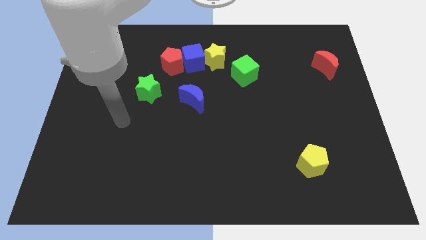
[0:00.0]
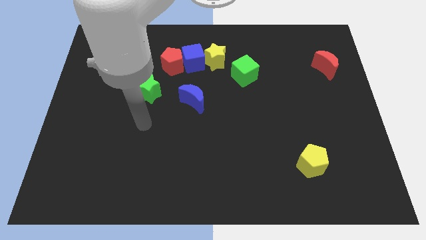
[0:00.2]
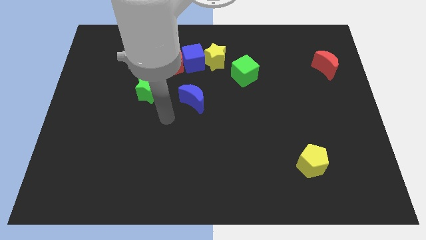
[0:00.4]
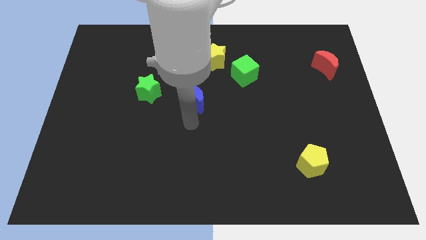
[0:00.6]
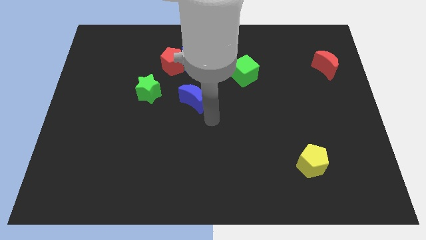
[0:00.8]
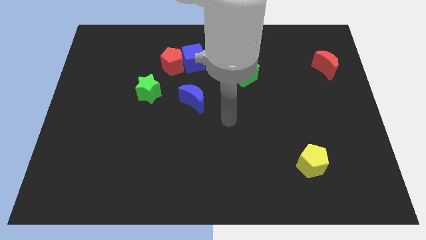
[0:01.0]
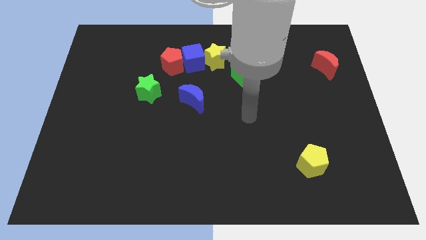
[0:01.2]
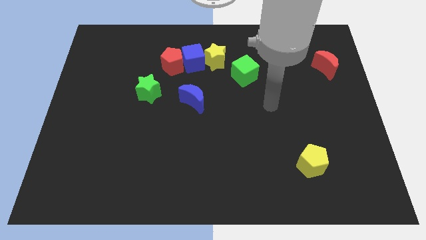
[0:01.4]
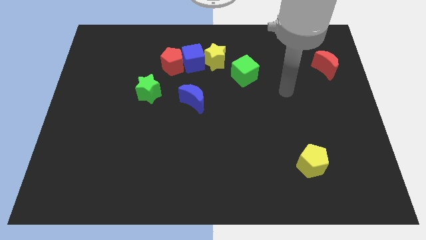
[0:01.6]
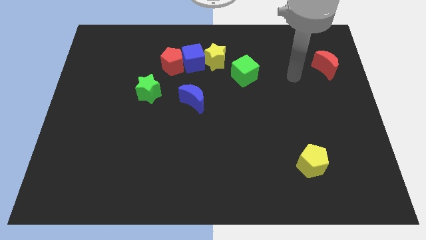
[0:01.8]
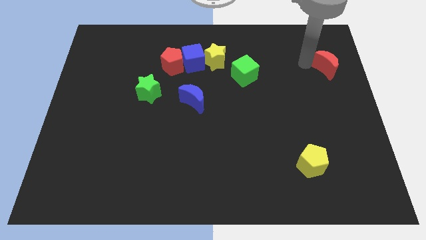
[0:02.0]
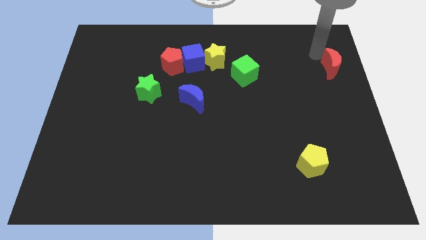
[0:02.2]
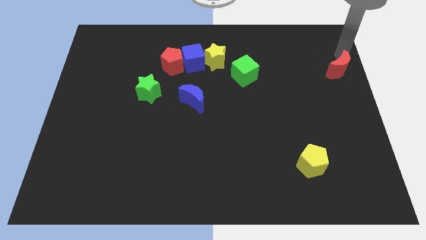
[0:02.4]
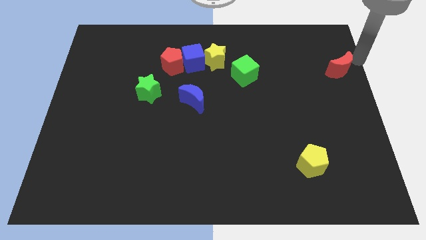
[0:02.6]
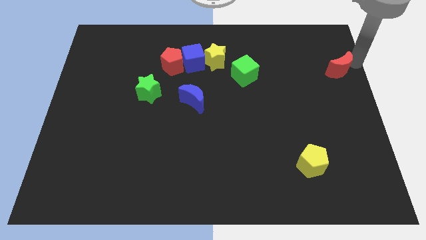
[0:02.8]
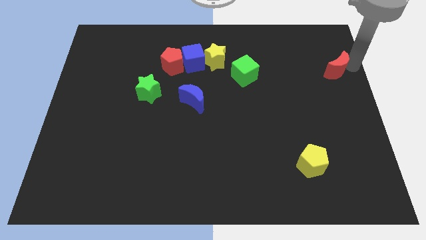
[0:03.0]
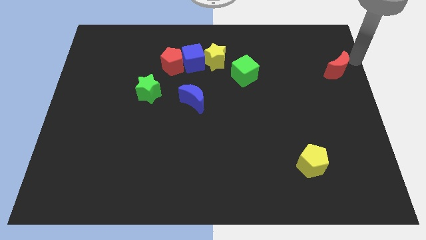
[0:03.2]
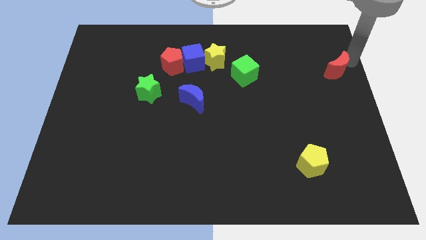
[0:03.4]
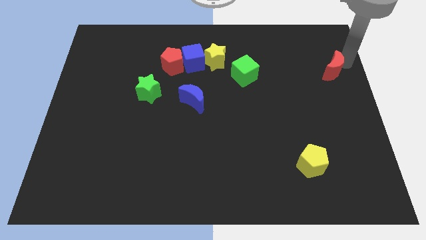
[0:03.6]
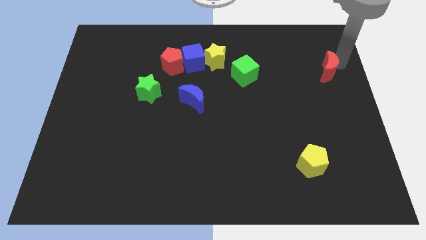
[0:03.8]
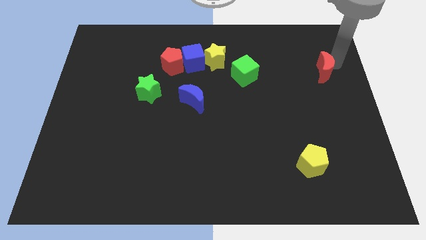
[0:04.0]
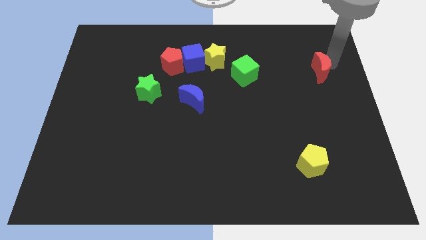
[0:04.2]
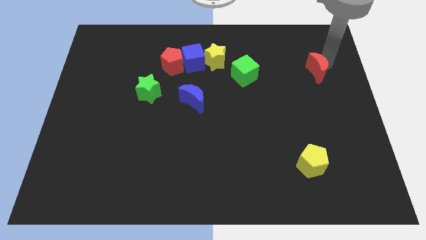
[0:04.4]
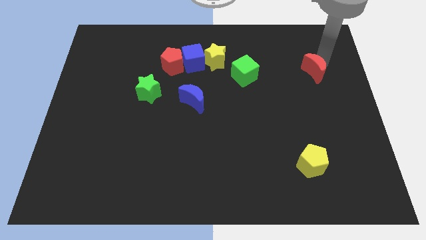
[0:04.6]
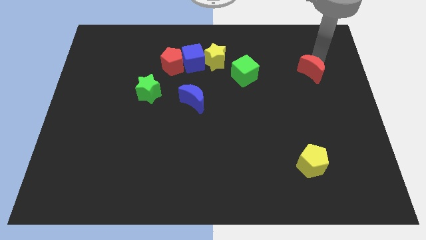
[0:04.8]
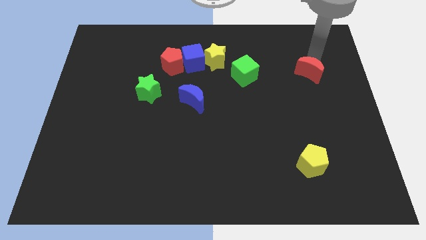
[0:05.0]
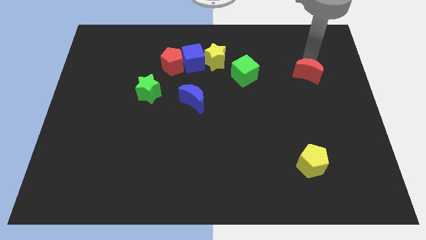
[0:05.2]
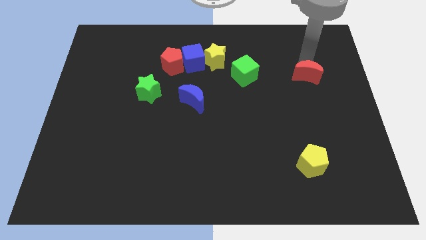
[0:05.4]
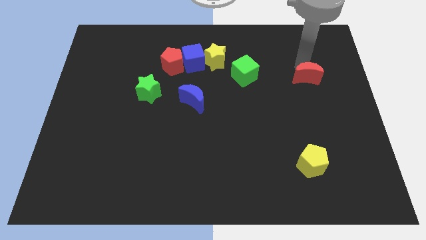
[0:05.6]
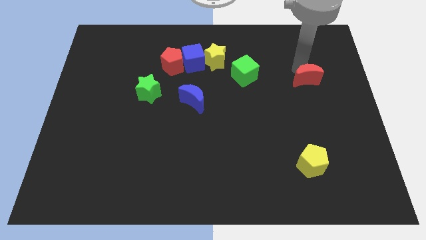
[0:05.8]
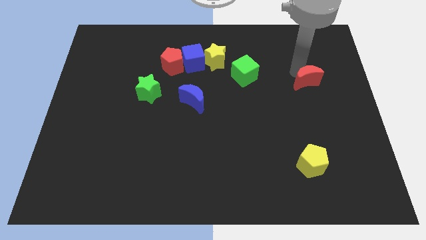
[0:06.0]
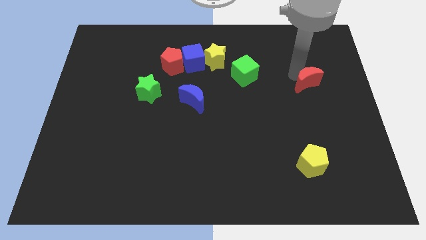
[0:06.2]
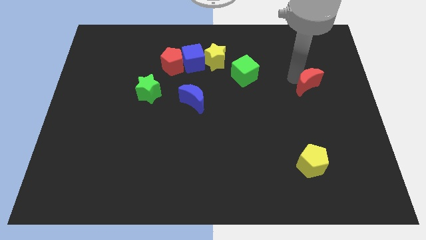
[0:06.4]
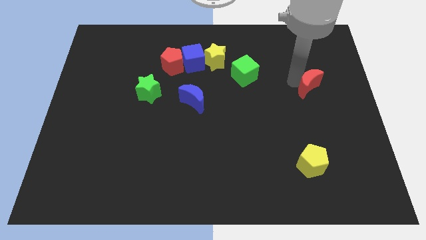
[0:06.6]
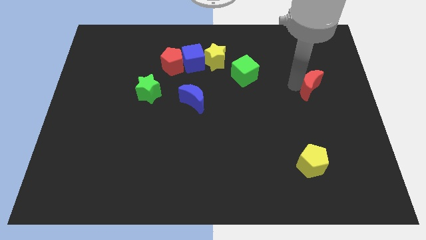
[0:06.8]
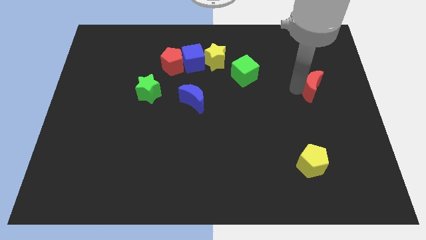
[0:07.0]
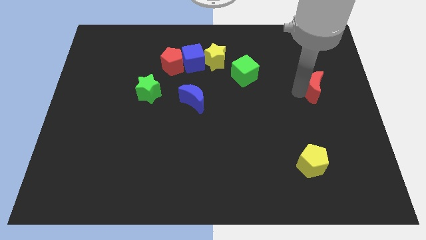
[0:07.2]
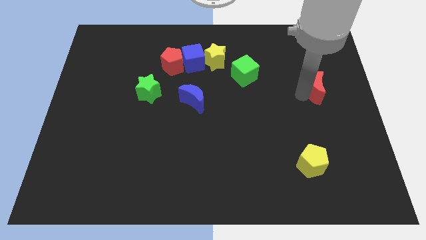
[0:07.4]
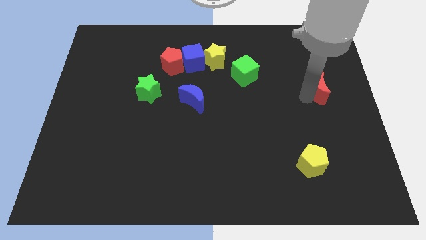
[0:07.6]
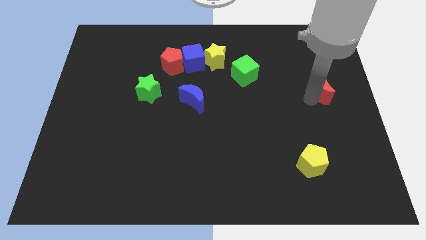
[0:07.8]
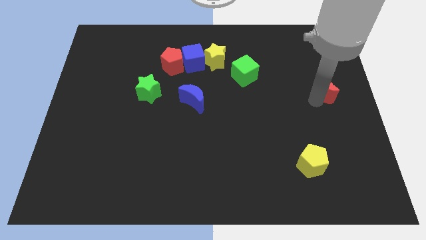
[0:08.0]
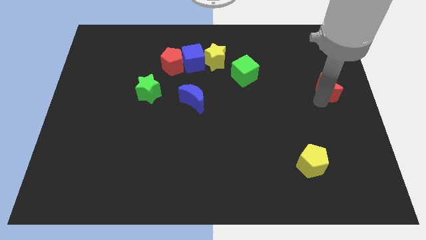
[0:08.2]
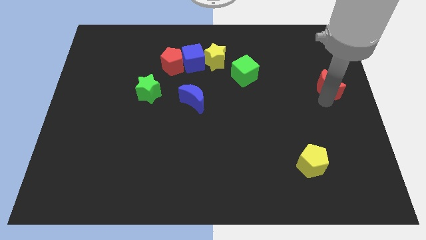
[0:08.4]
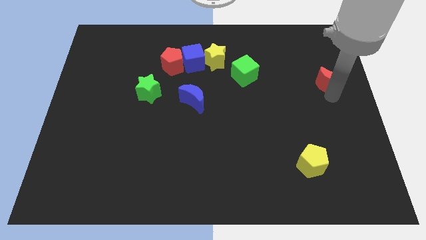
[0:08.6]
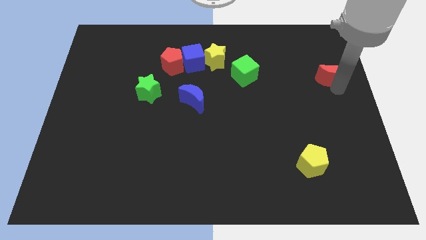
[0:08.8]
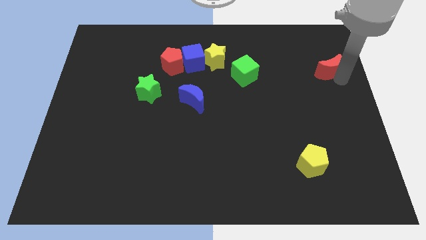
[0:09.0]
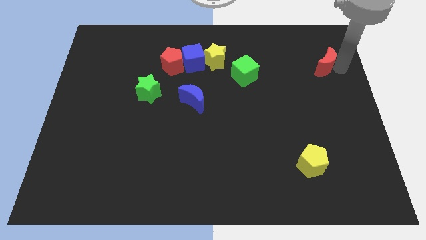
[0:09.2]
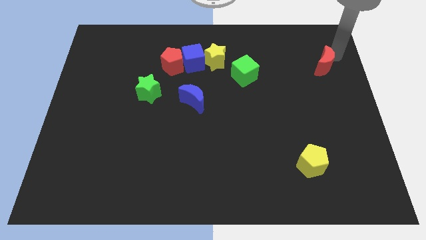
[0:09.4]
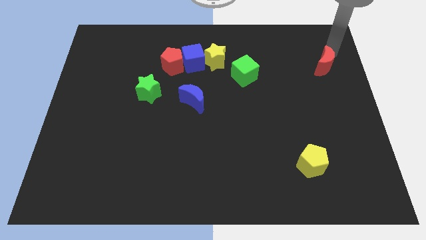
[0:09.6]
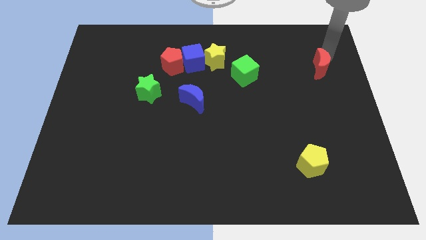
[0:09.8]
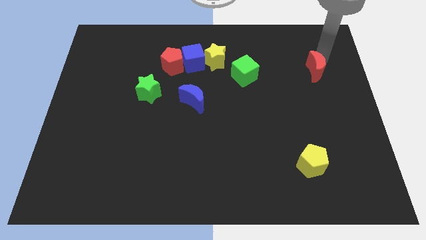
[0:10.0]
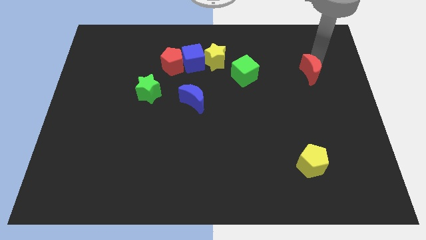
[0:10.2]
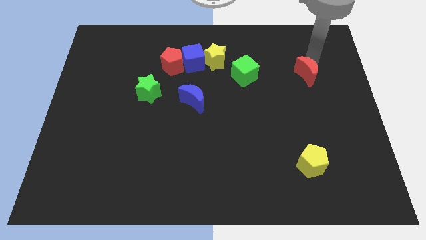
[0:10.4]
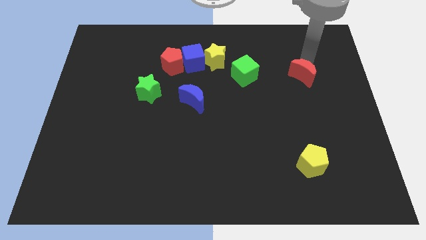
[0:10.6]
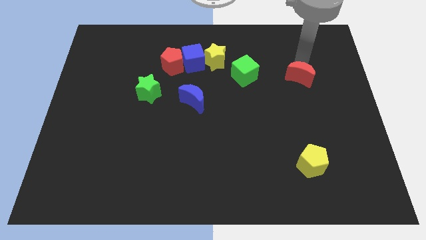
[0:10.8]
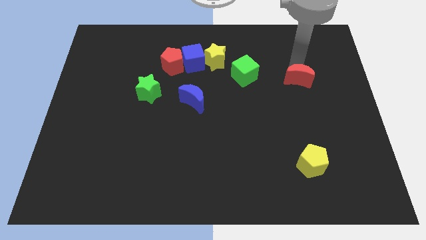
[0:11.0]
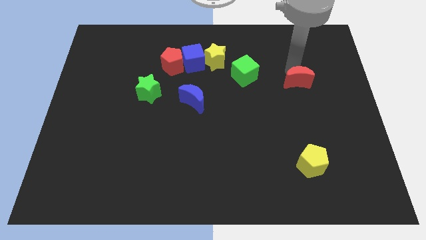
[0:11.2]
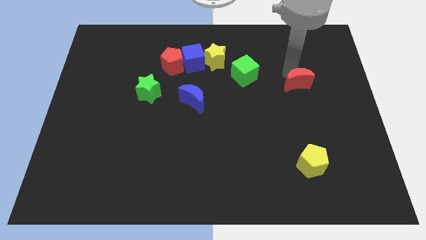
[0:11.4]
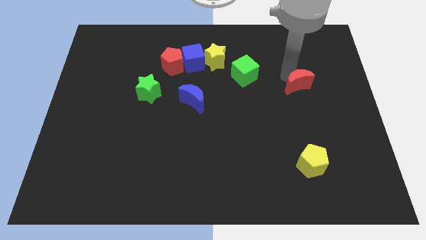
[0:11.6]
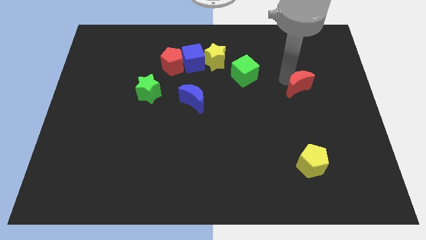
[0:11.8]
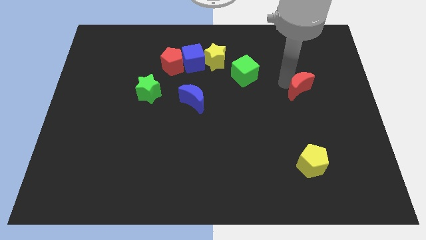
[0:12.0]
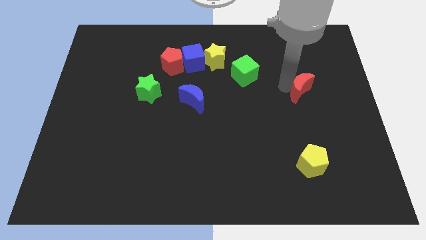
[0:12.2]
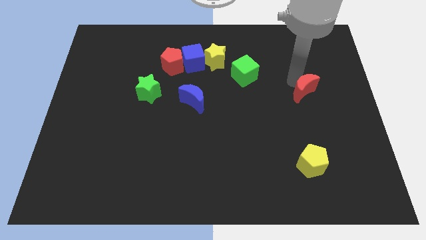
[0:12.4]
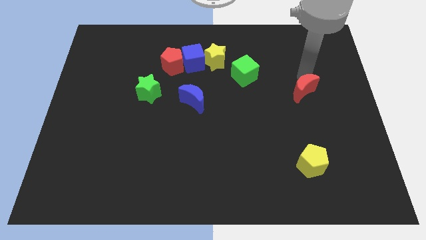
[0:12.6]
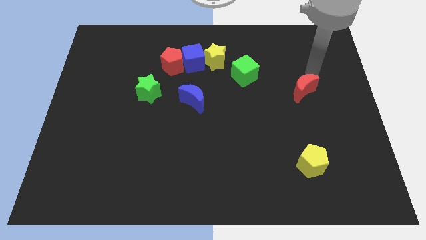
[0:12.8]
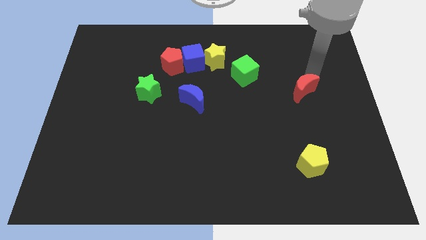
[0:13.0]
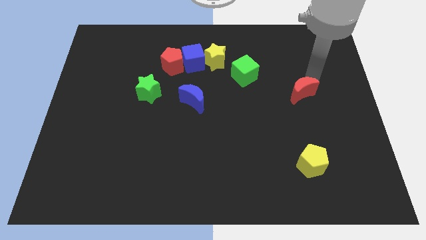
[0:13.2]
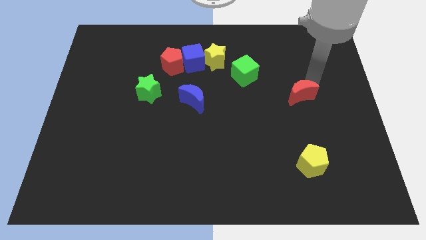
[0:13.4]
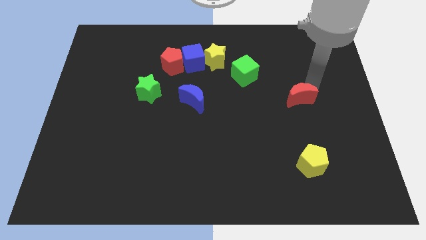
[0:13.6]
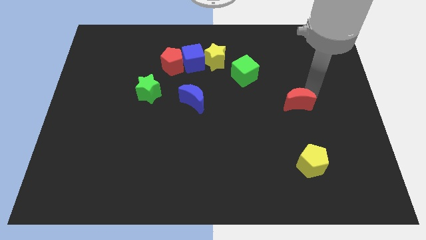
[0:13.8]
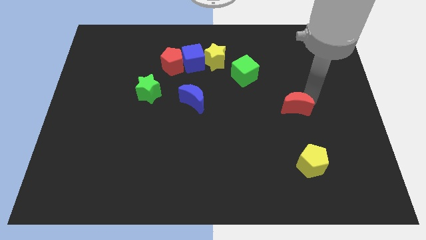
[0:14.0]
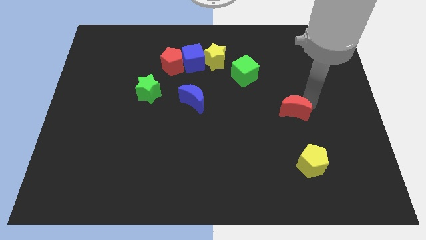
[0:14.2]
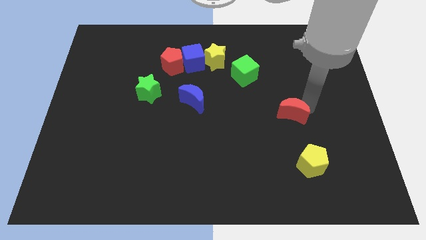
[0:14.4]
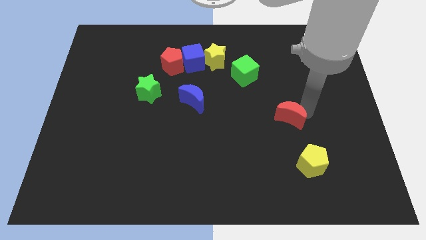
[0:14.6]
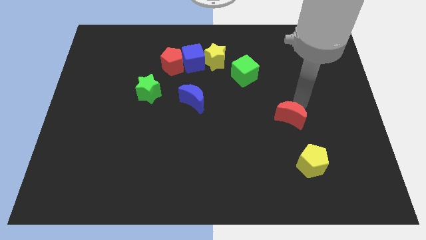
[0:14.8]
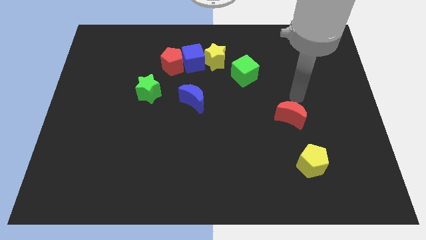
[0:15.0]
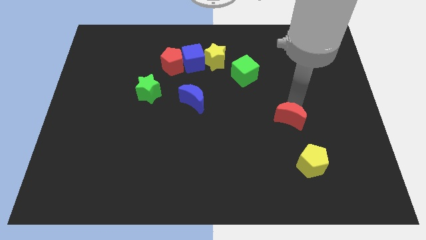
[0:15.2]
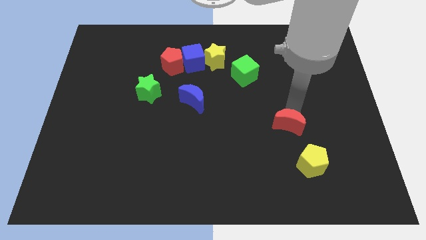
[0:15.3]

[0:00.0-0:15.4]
move the red moon to the top left side of the yellow pentagon
